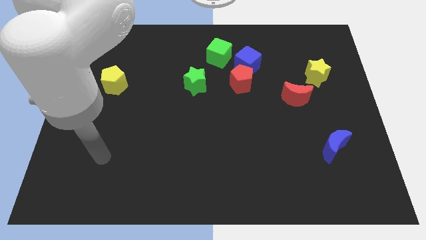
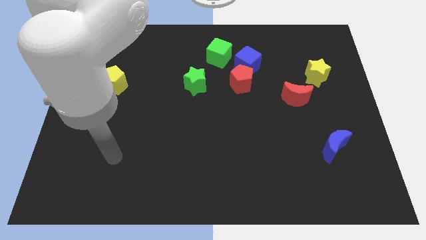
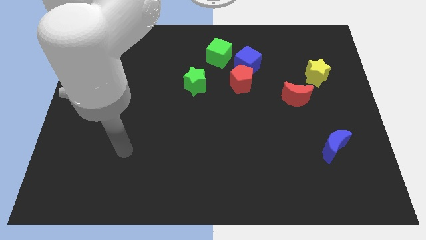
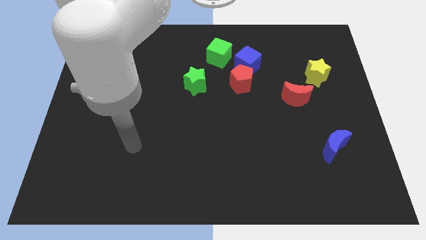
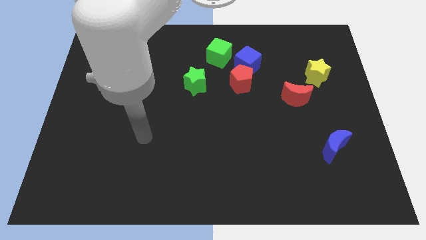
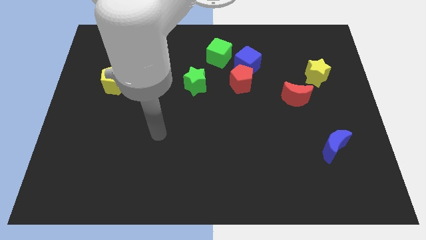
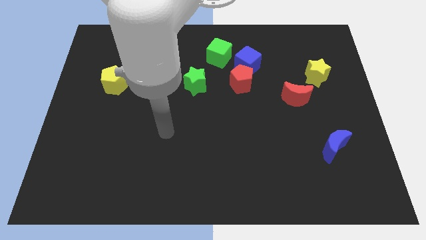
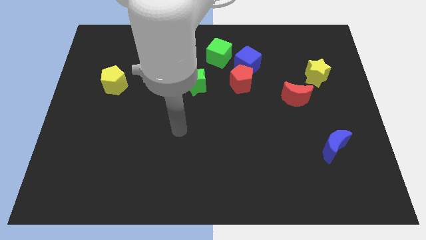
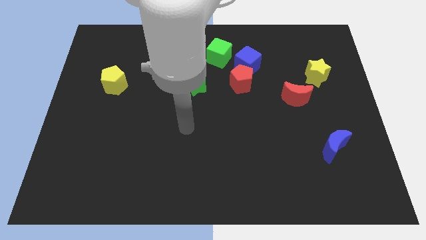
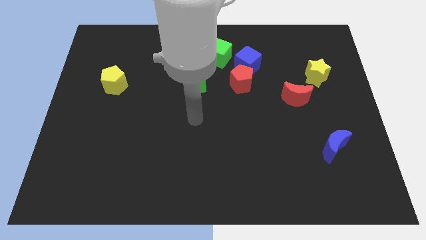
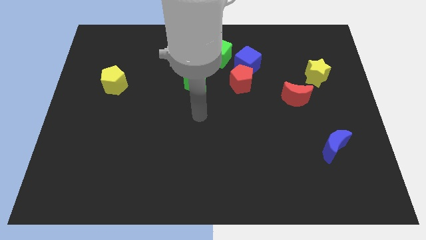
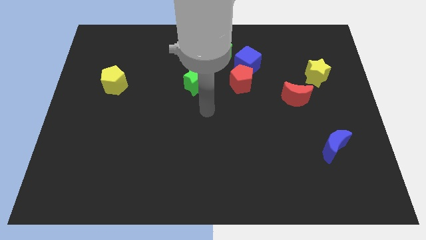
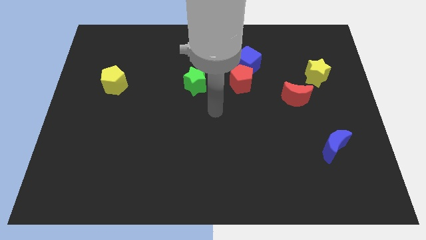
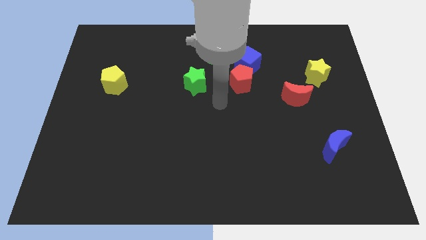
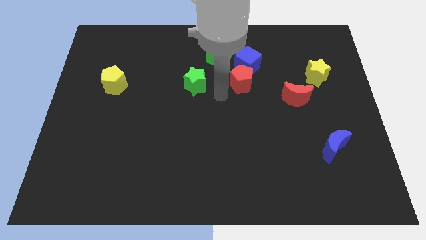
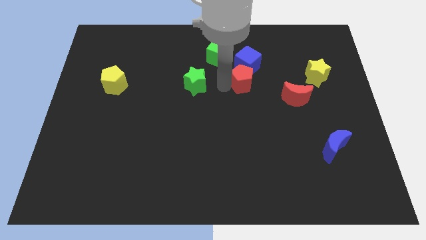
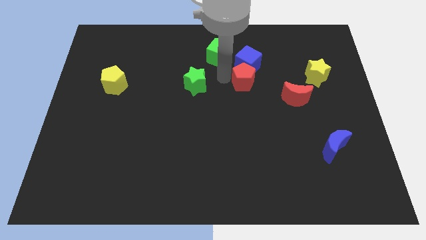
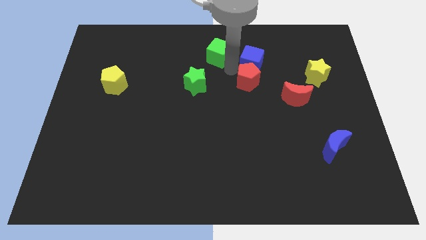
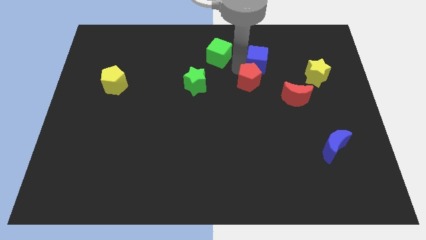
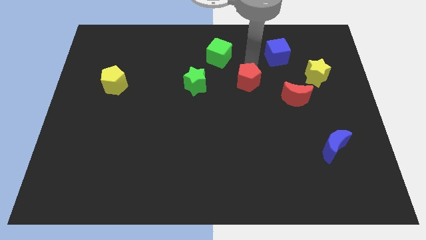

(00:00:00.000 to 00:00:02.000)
pull the red pentagon apart from the blue cube

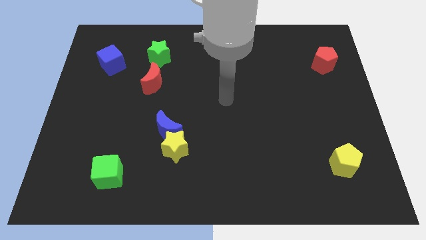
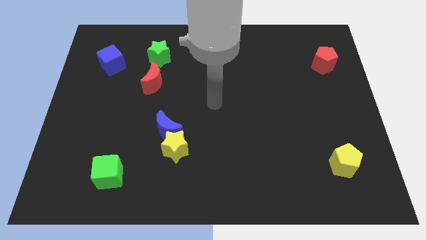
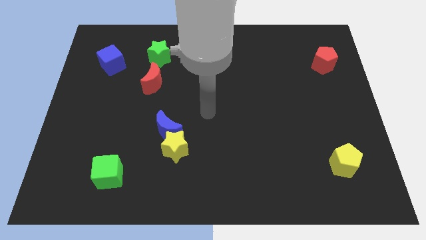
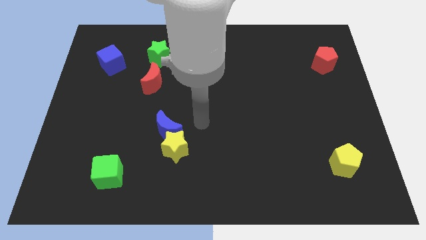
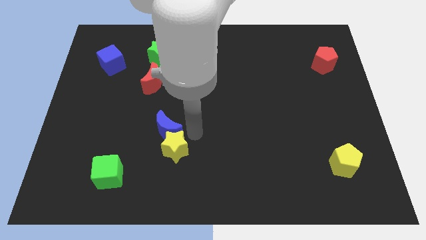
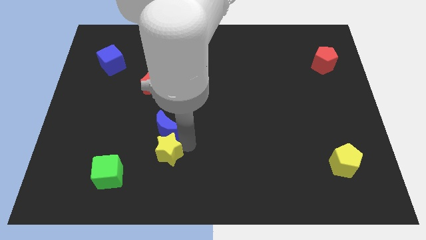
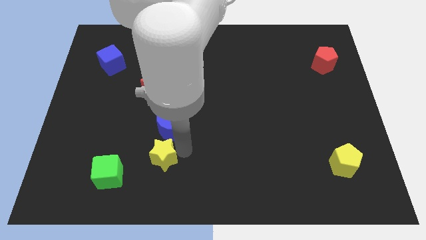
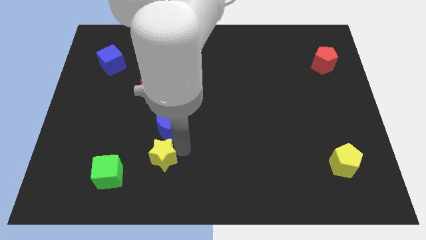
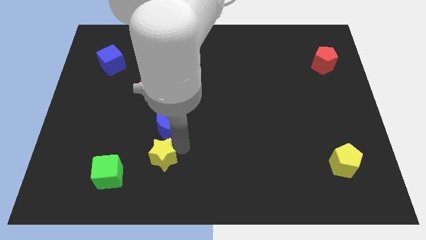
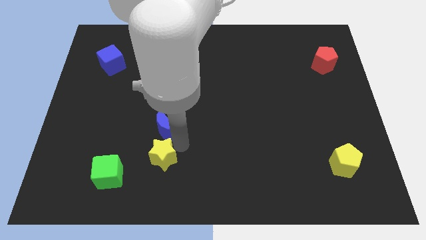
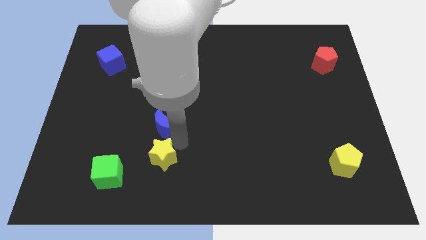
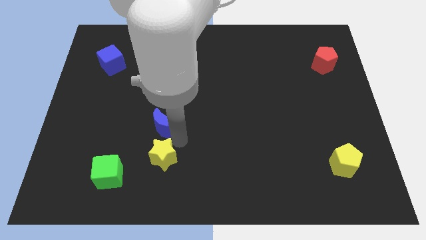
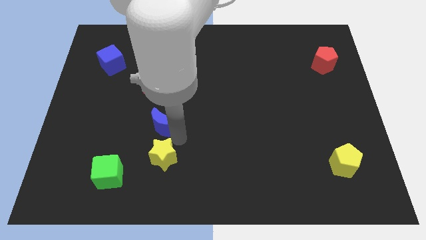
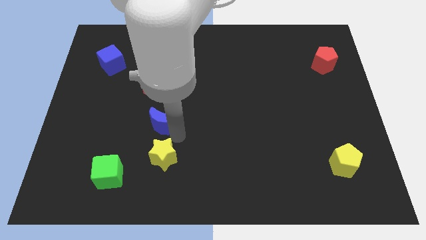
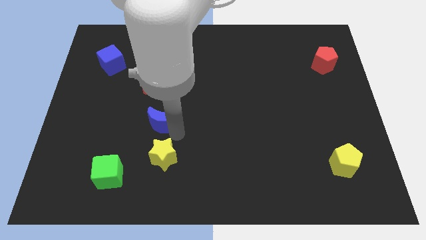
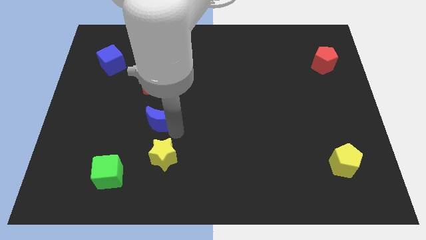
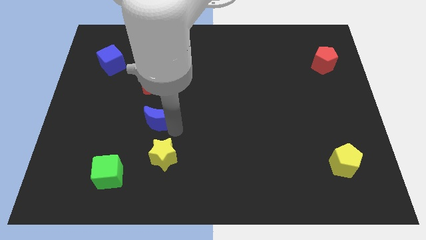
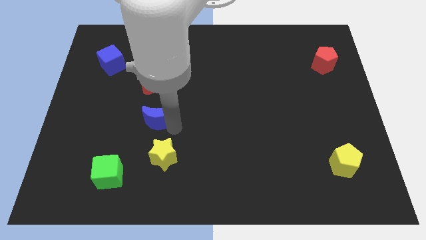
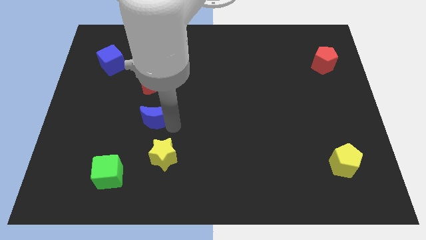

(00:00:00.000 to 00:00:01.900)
pull the blue moon apart from the yellow star

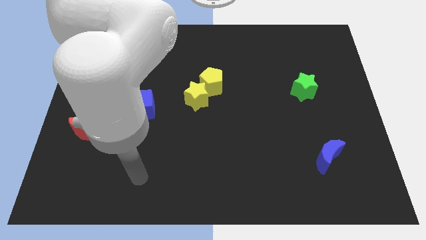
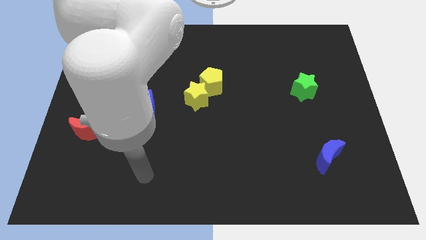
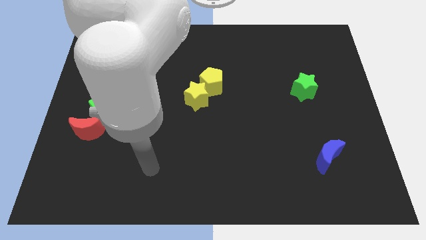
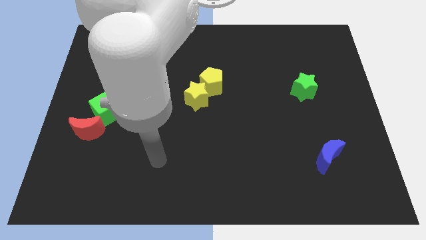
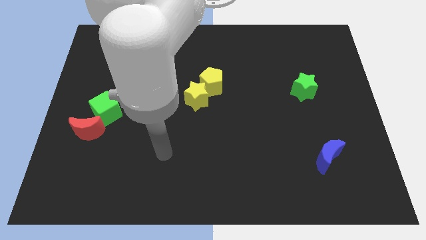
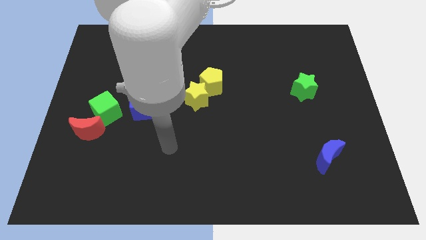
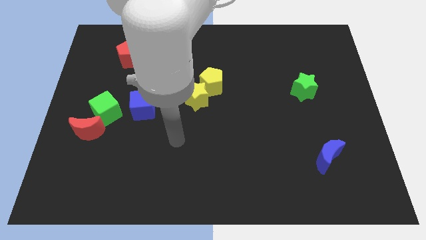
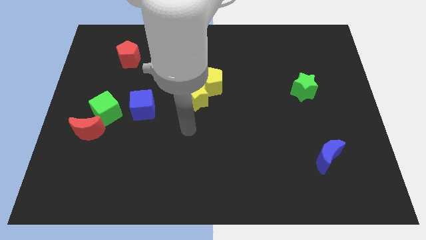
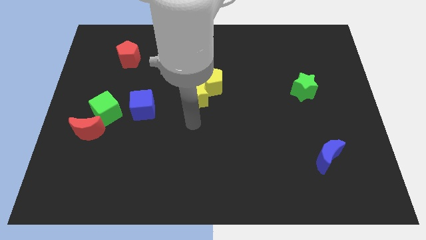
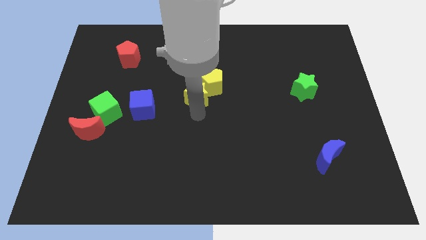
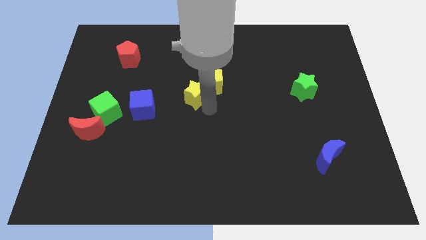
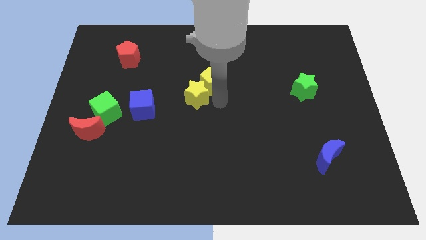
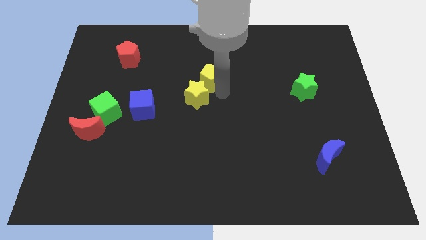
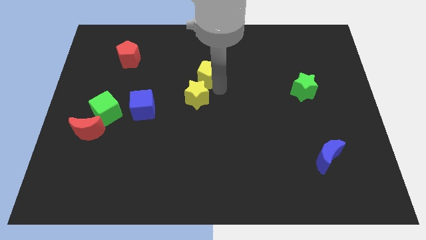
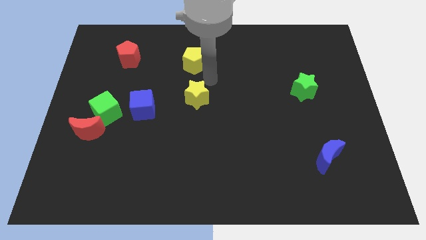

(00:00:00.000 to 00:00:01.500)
separate the yellow star from the yellow pentagon

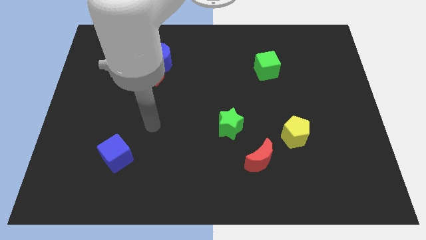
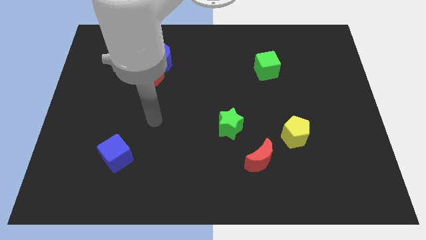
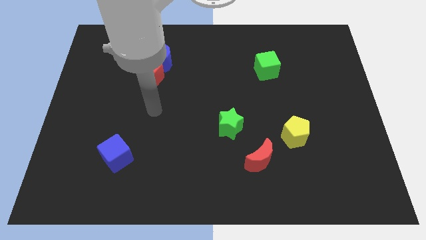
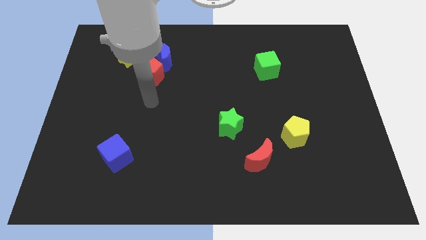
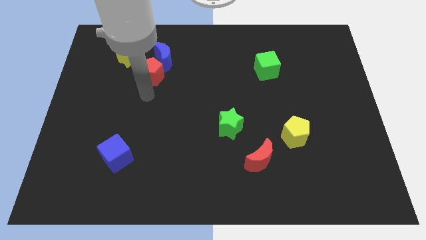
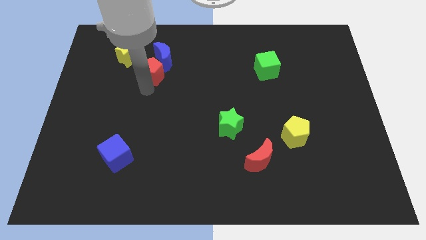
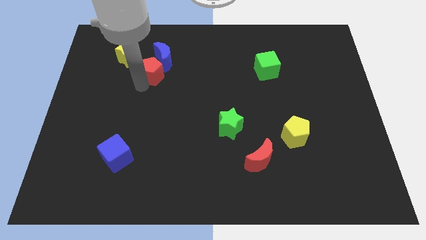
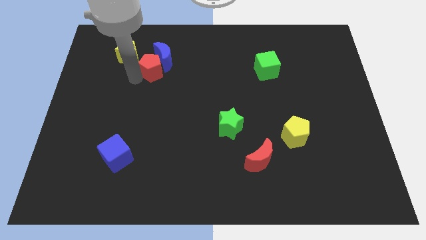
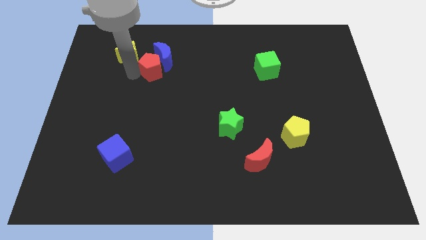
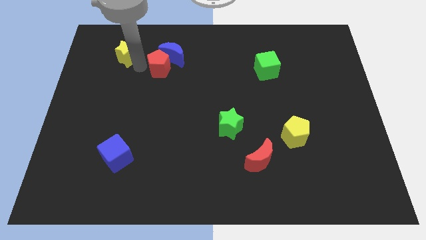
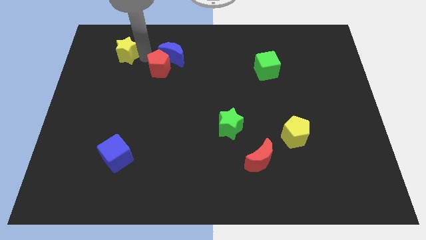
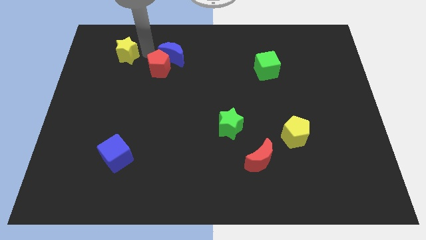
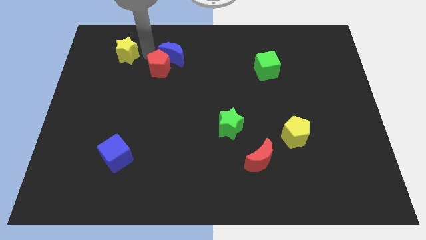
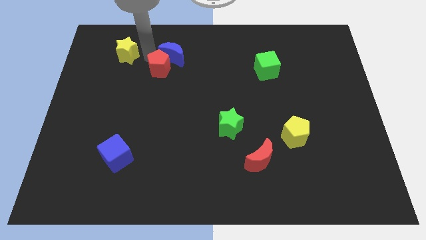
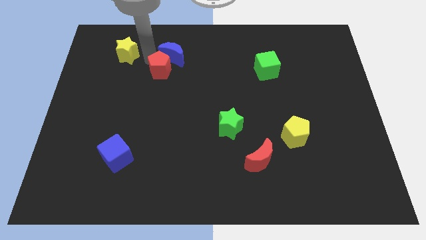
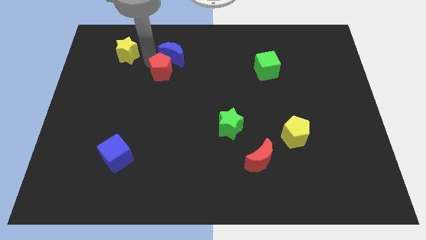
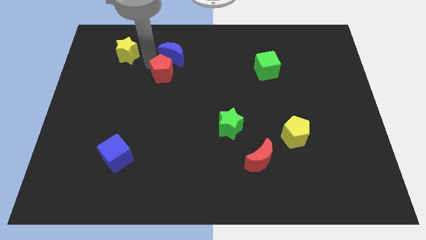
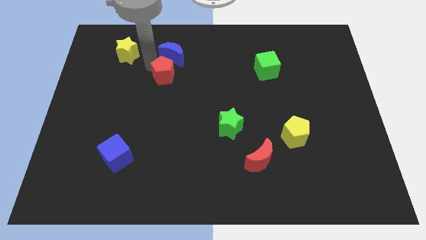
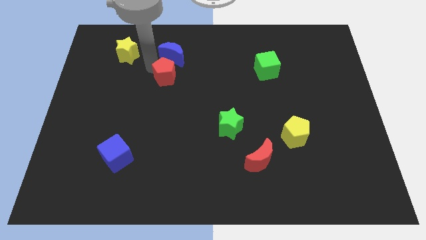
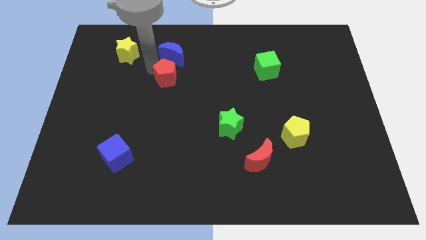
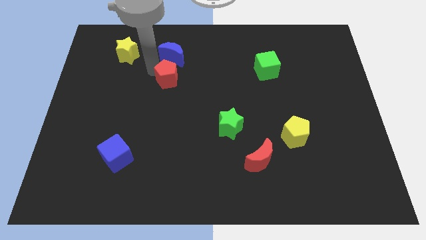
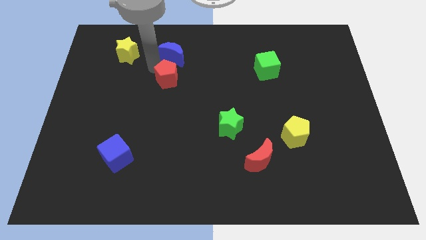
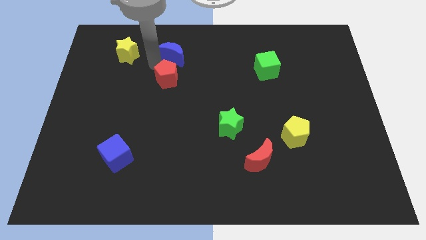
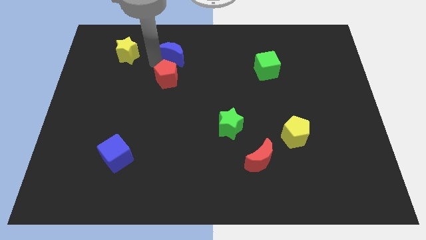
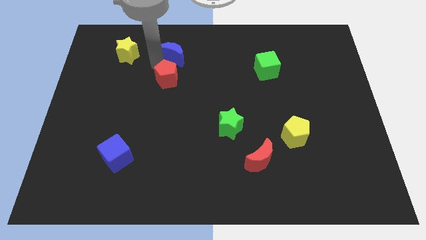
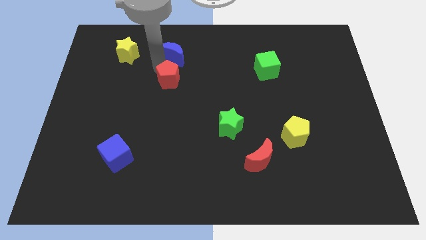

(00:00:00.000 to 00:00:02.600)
separate the red pentagon from the blue moon and yellow star

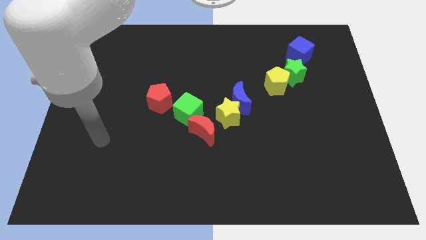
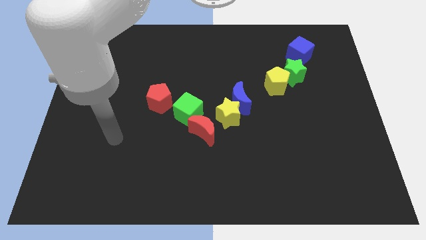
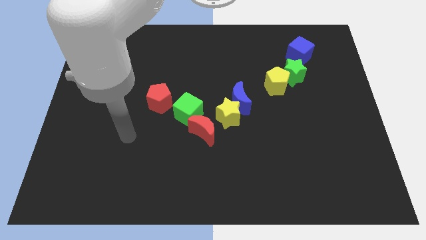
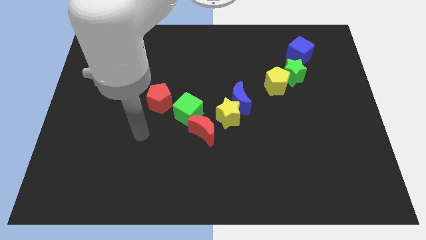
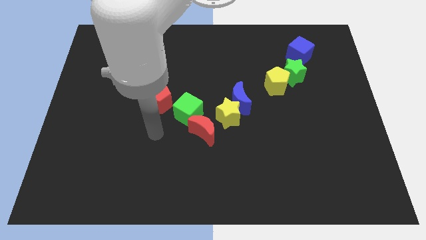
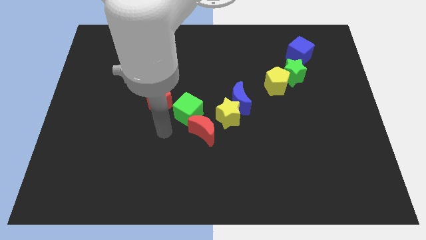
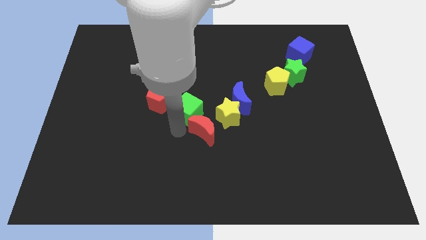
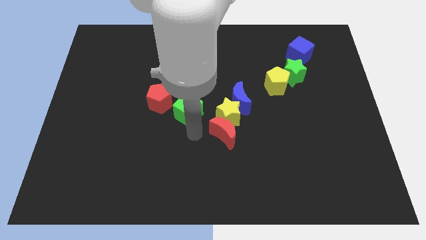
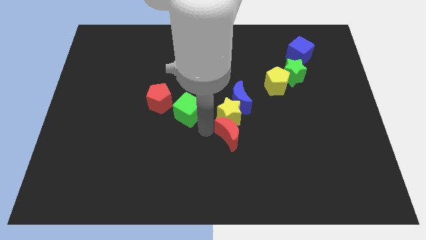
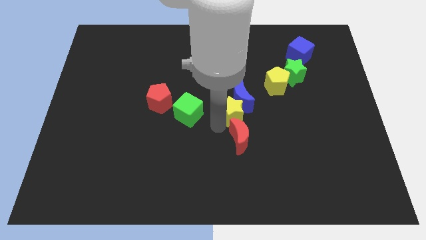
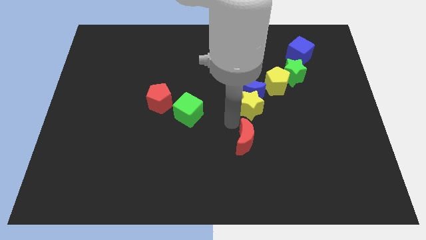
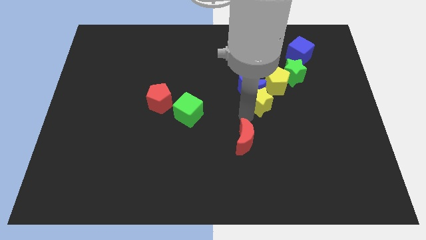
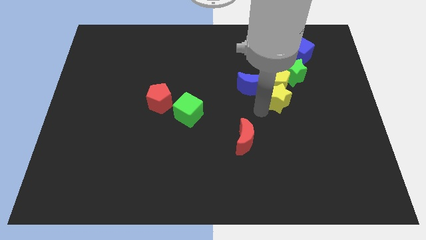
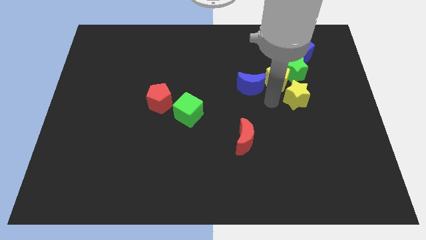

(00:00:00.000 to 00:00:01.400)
move the blue moon away from the yellow star
